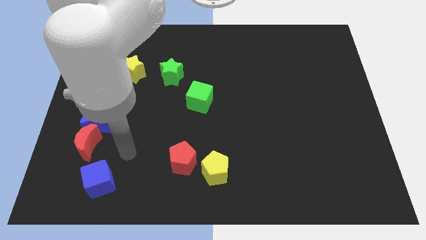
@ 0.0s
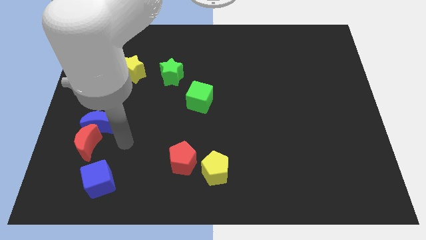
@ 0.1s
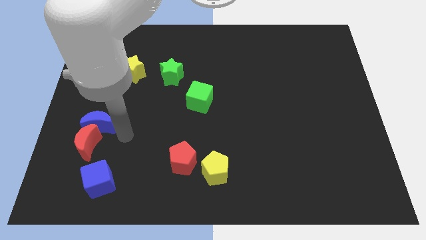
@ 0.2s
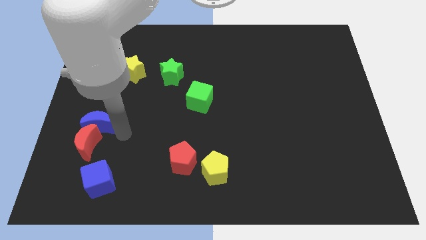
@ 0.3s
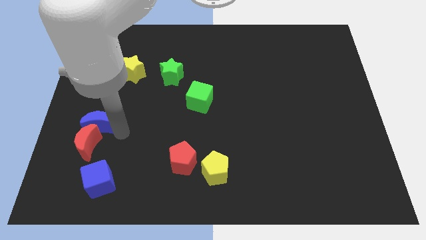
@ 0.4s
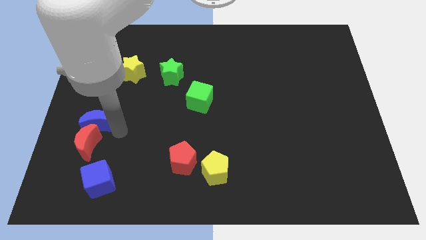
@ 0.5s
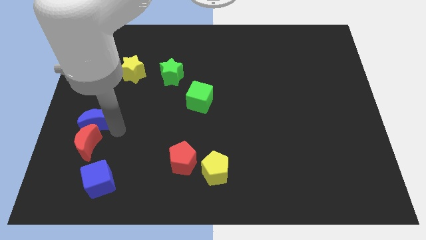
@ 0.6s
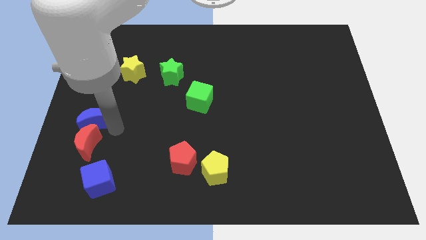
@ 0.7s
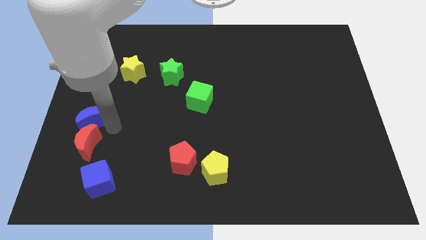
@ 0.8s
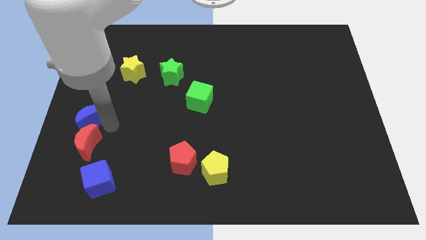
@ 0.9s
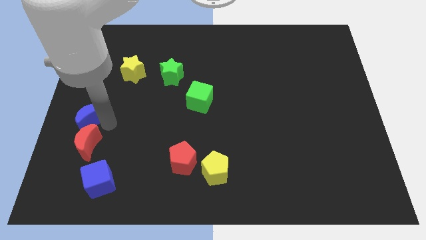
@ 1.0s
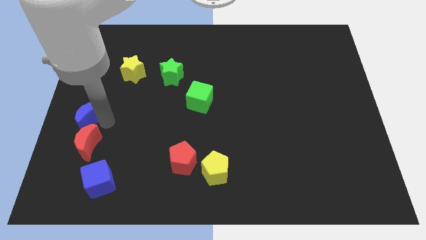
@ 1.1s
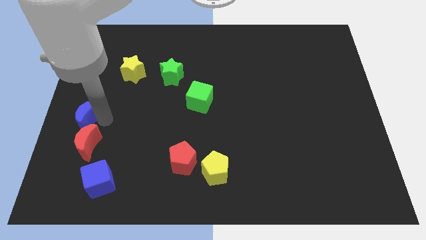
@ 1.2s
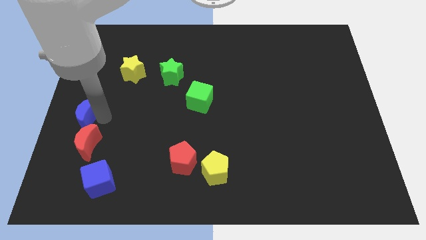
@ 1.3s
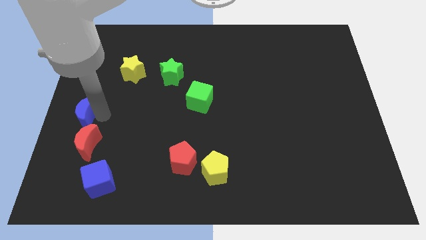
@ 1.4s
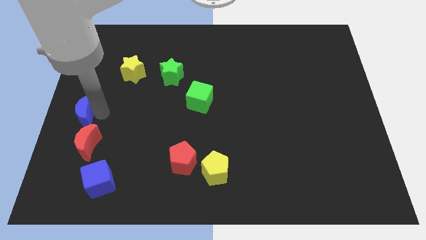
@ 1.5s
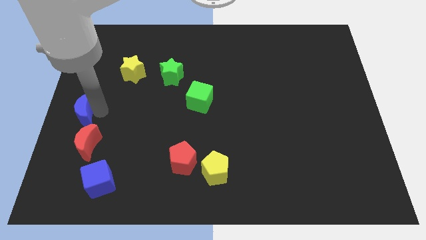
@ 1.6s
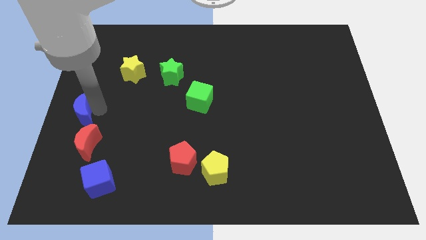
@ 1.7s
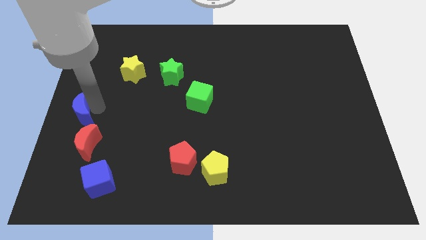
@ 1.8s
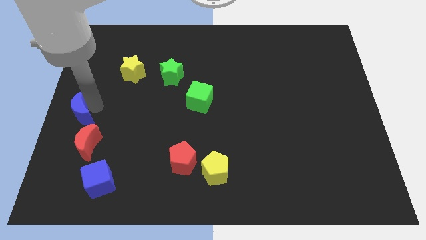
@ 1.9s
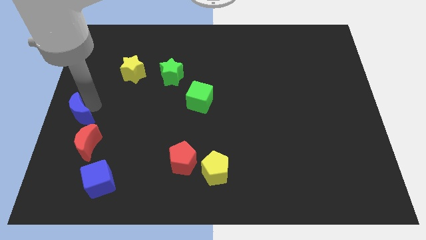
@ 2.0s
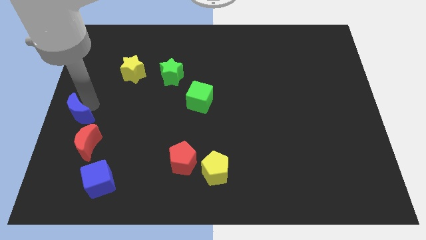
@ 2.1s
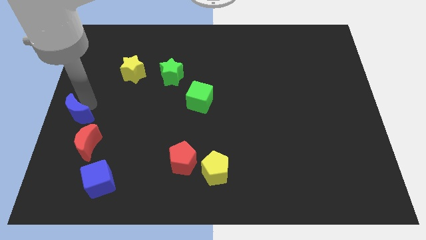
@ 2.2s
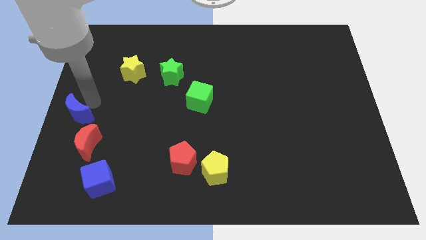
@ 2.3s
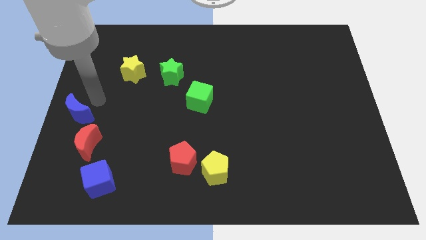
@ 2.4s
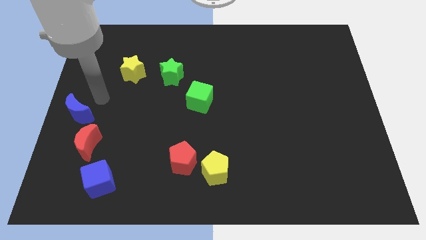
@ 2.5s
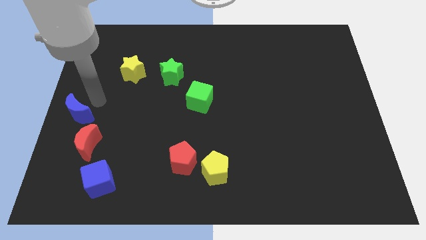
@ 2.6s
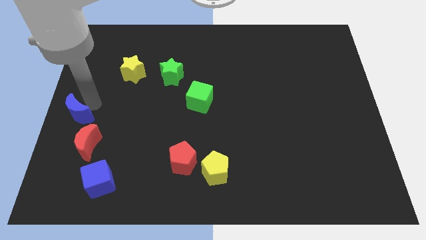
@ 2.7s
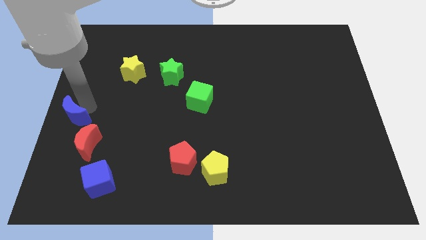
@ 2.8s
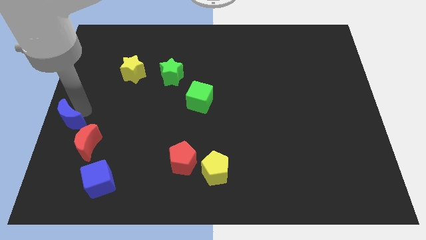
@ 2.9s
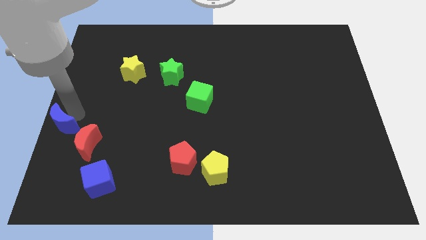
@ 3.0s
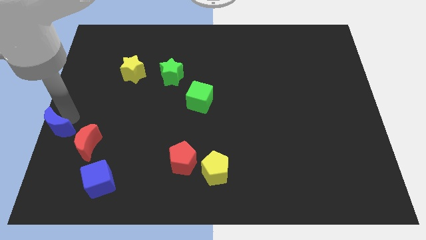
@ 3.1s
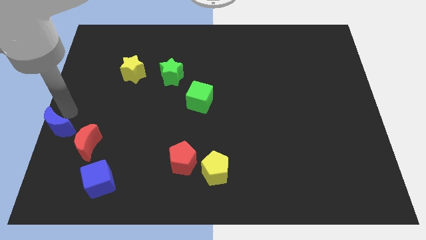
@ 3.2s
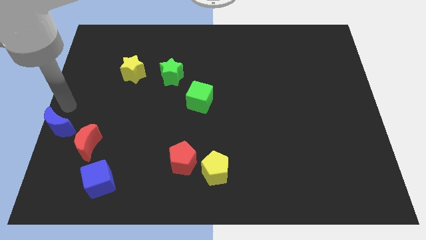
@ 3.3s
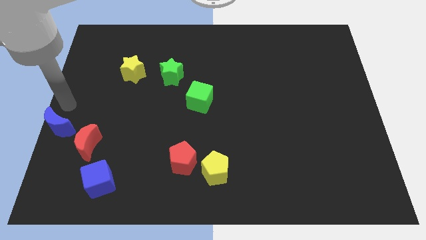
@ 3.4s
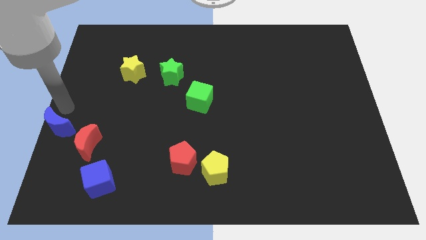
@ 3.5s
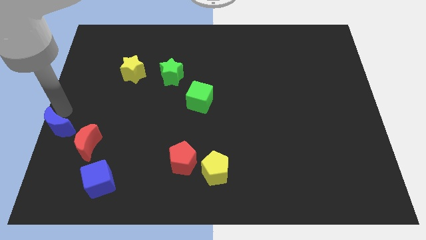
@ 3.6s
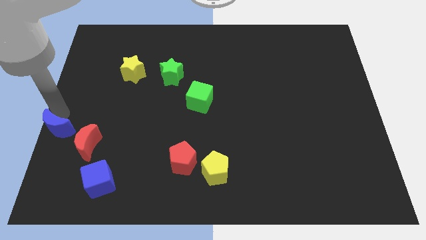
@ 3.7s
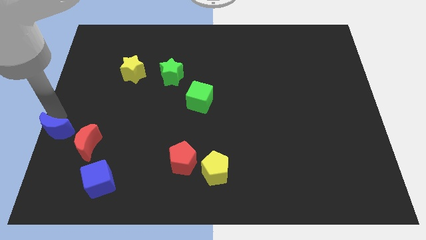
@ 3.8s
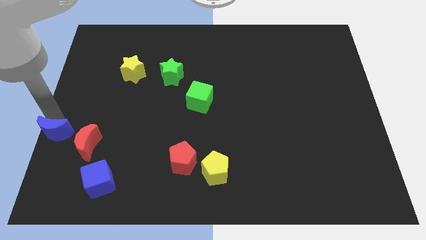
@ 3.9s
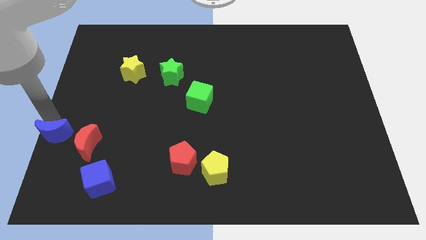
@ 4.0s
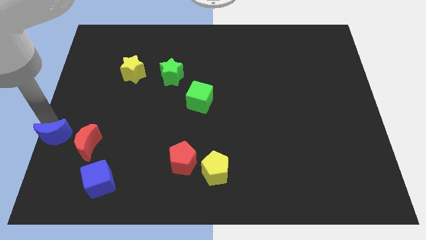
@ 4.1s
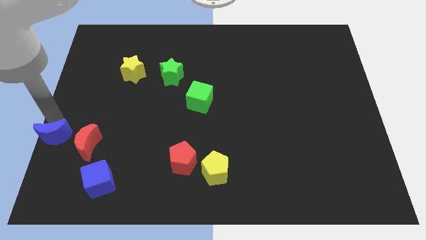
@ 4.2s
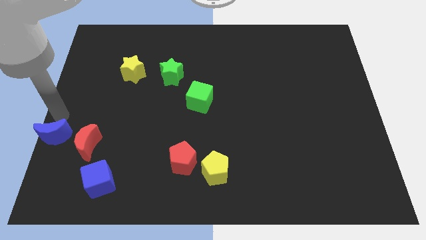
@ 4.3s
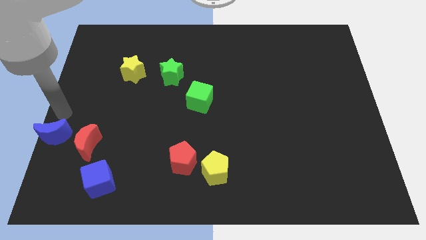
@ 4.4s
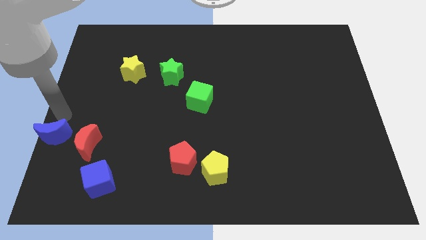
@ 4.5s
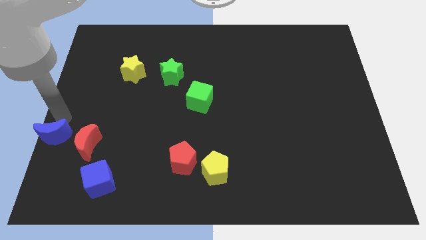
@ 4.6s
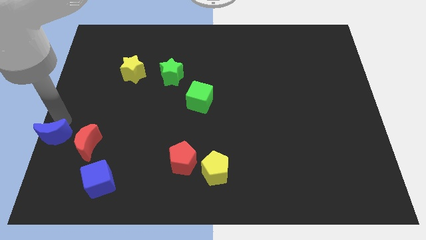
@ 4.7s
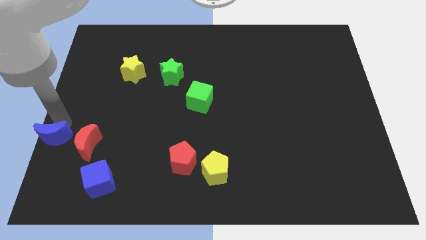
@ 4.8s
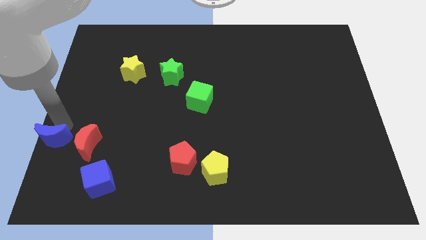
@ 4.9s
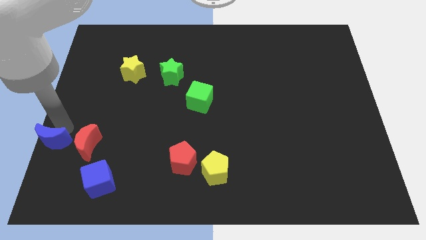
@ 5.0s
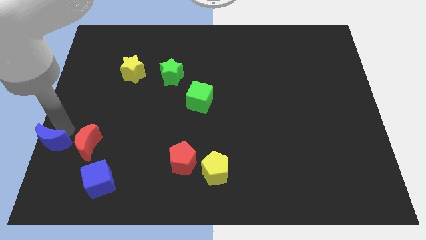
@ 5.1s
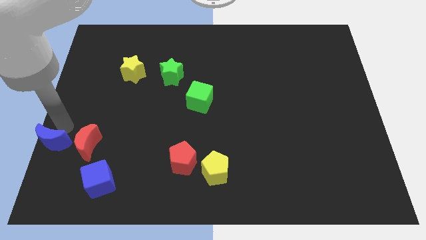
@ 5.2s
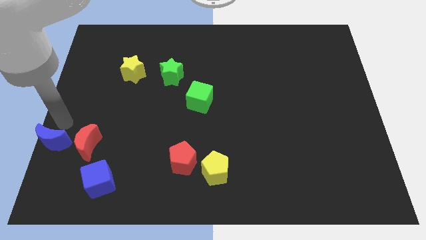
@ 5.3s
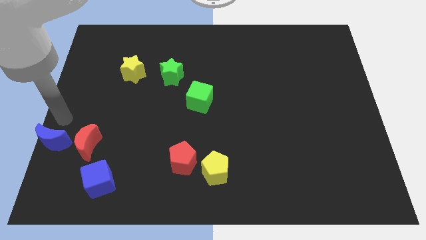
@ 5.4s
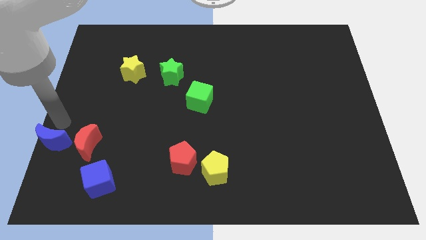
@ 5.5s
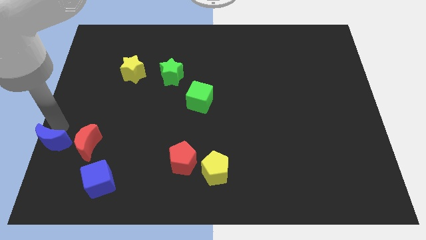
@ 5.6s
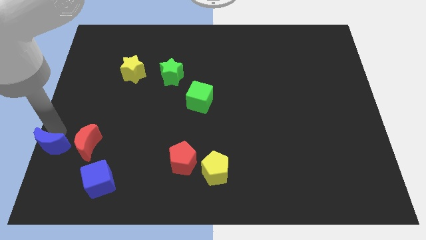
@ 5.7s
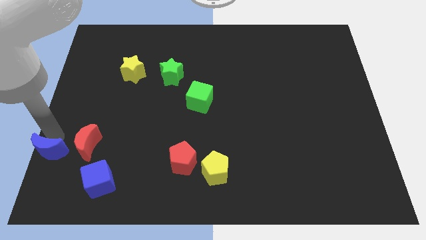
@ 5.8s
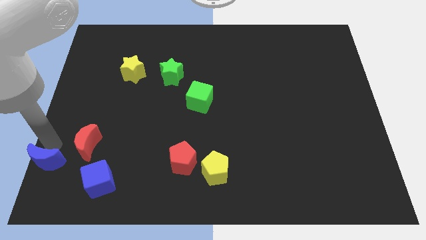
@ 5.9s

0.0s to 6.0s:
move the blue moon to the bottom left of the board

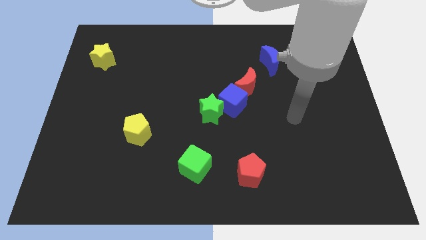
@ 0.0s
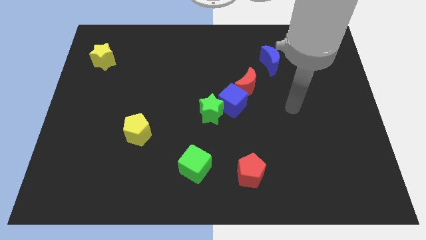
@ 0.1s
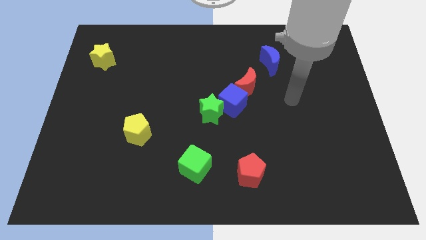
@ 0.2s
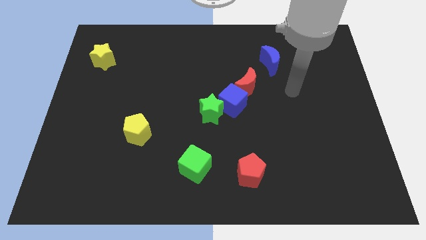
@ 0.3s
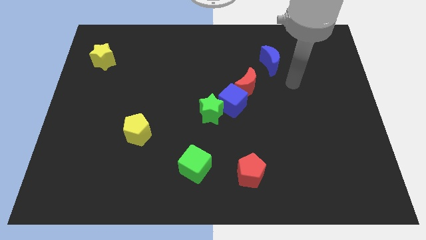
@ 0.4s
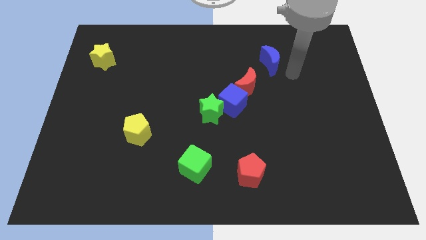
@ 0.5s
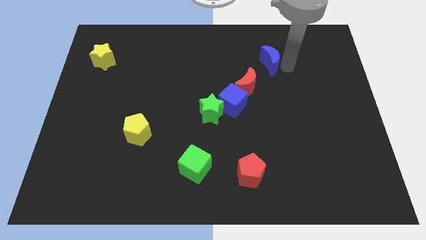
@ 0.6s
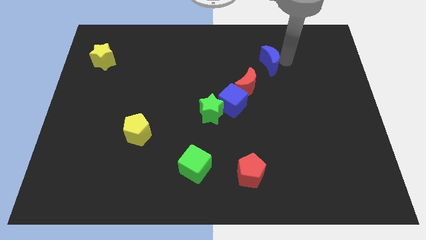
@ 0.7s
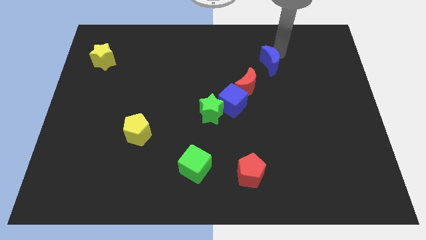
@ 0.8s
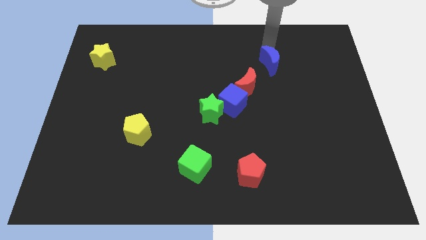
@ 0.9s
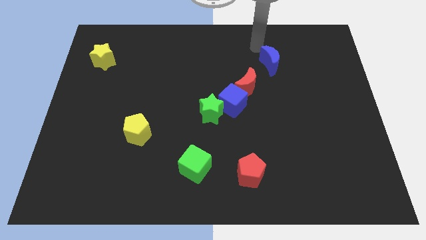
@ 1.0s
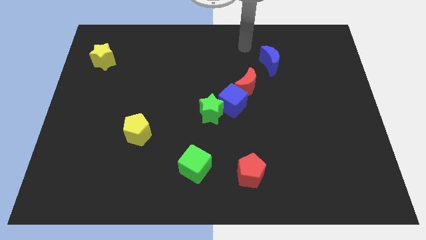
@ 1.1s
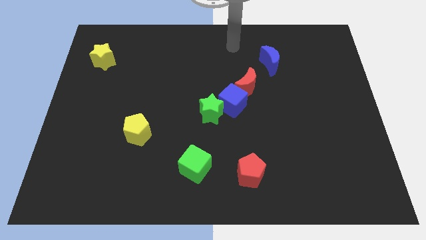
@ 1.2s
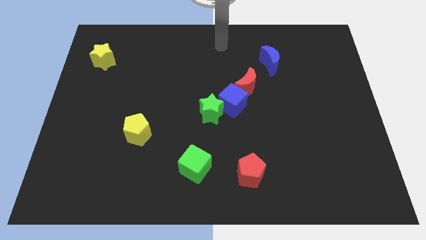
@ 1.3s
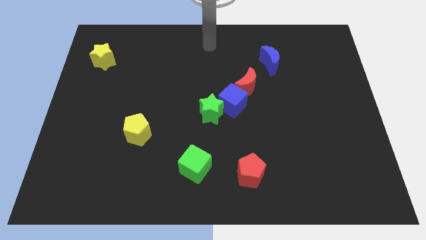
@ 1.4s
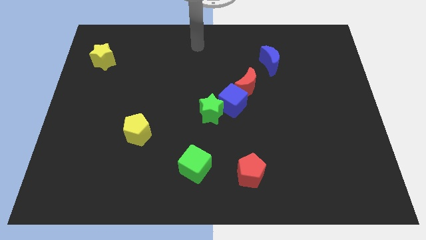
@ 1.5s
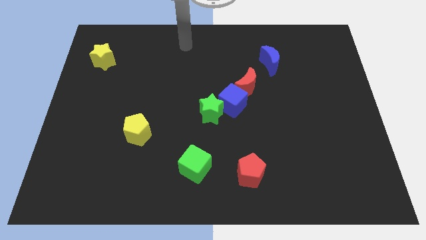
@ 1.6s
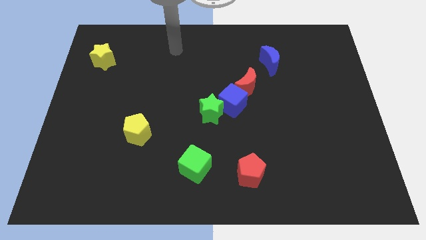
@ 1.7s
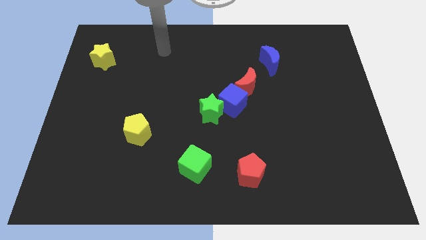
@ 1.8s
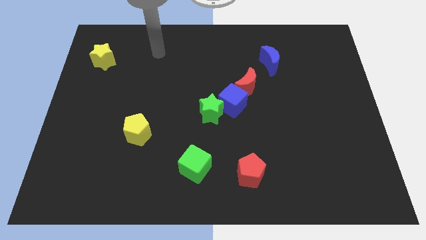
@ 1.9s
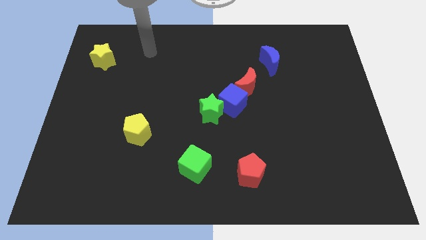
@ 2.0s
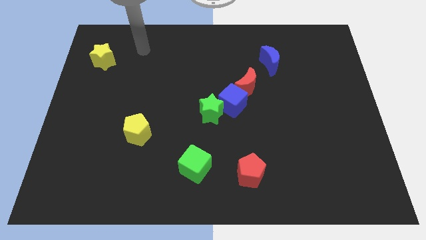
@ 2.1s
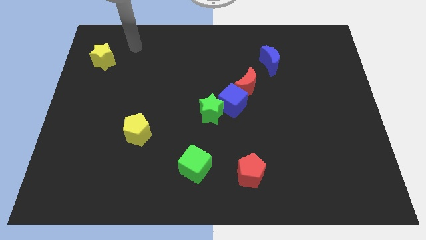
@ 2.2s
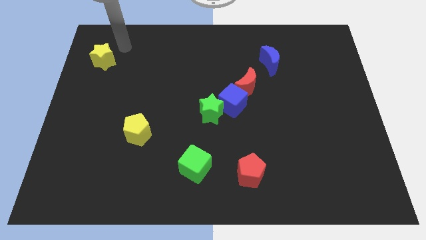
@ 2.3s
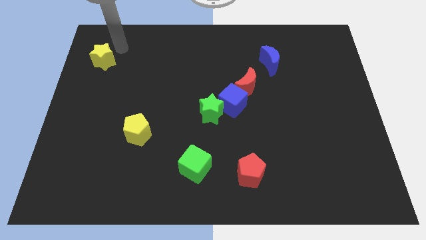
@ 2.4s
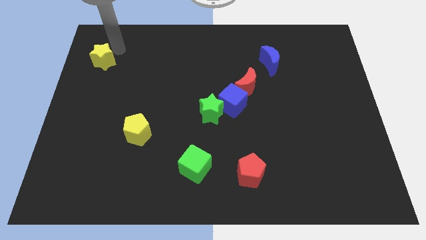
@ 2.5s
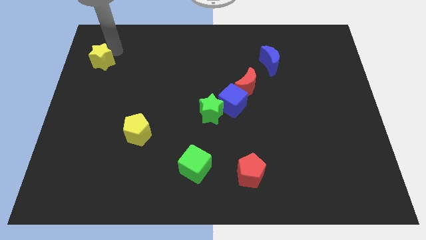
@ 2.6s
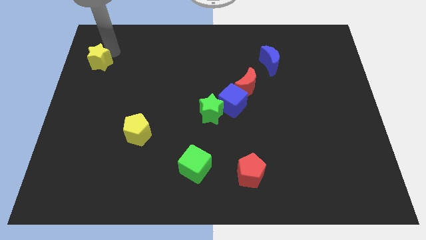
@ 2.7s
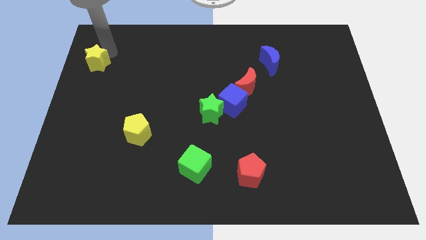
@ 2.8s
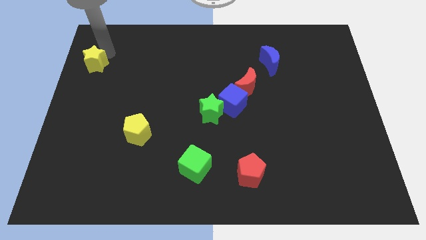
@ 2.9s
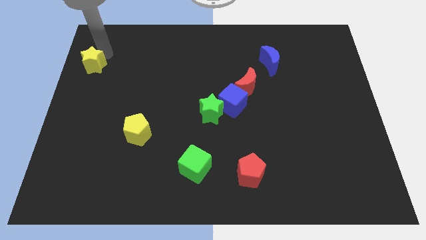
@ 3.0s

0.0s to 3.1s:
move the yellow star to the left side of the board
